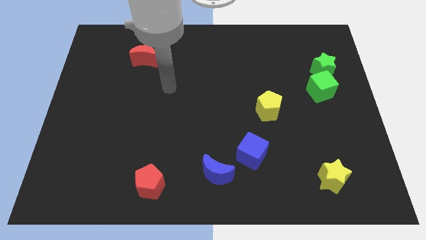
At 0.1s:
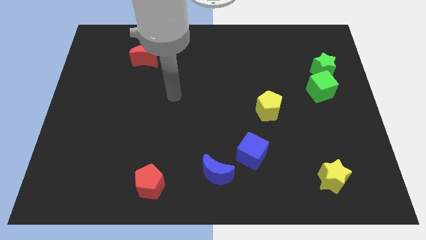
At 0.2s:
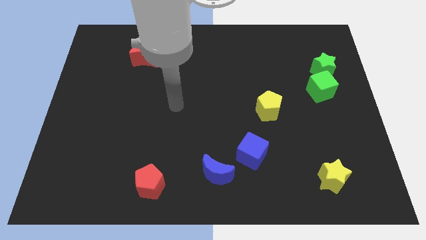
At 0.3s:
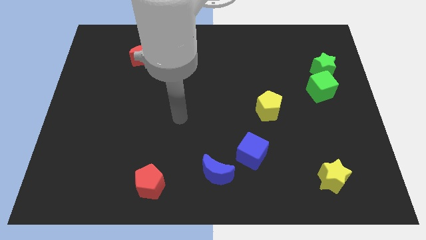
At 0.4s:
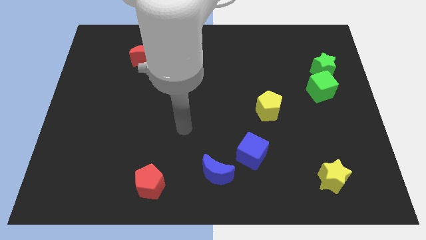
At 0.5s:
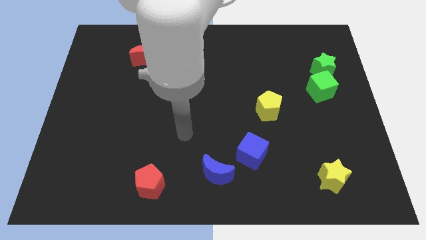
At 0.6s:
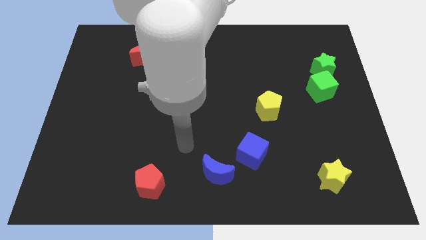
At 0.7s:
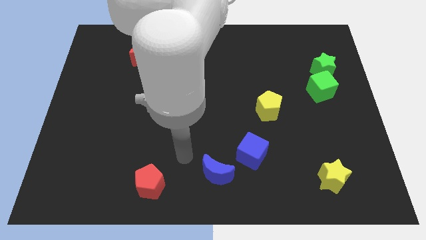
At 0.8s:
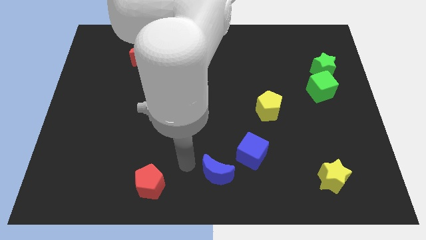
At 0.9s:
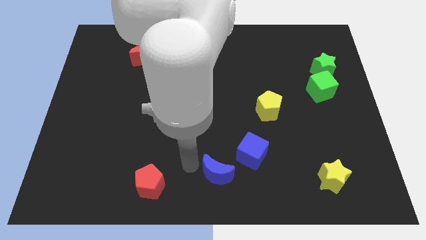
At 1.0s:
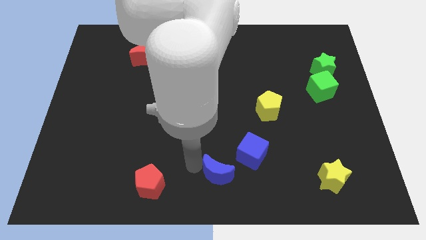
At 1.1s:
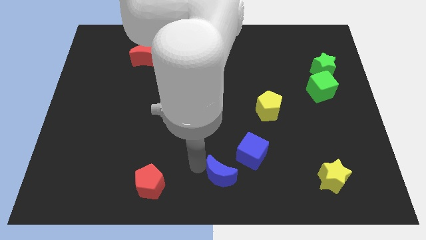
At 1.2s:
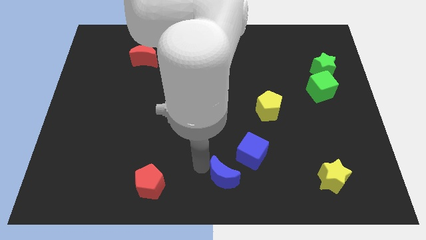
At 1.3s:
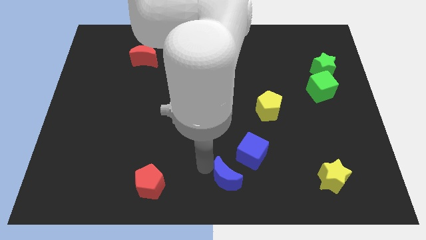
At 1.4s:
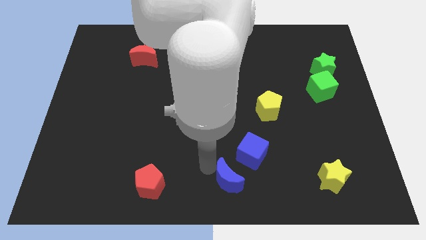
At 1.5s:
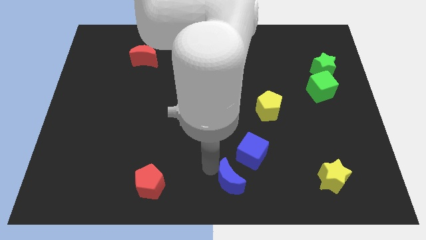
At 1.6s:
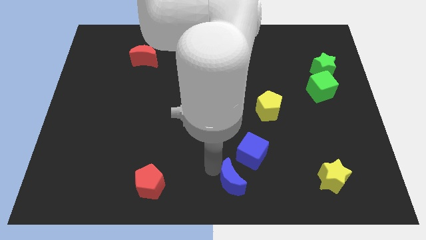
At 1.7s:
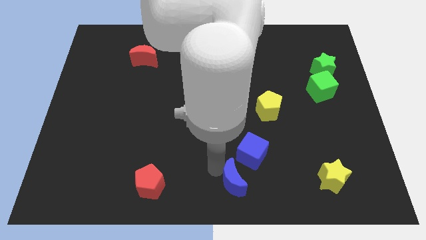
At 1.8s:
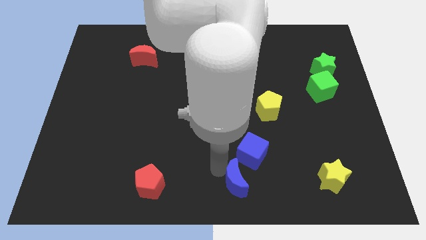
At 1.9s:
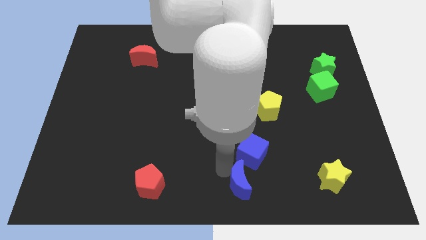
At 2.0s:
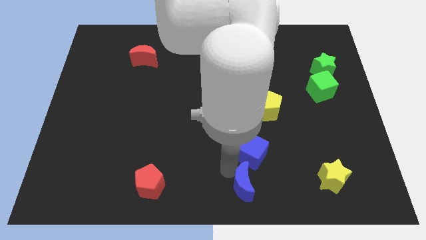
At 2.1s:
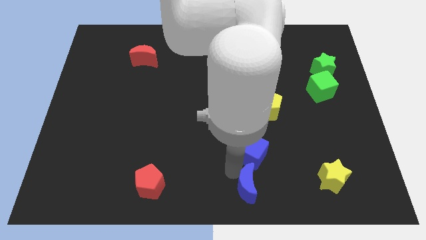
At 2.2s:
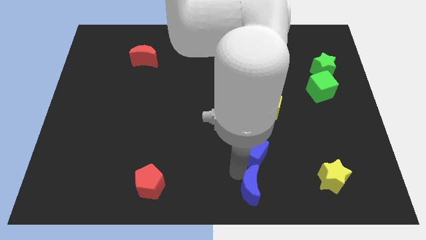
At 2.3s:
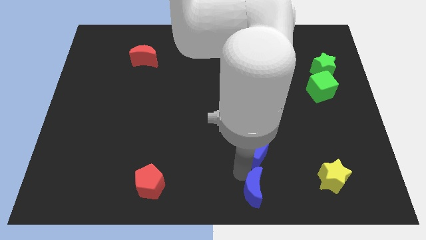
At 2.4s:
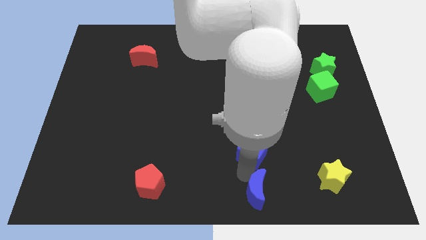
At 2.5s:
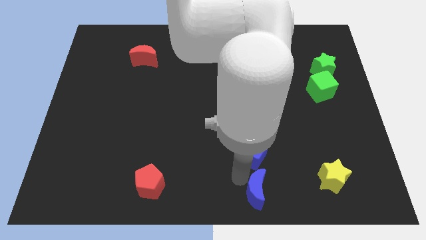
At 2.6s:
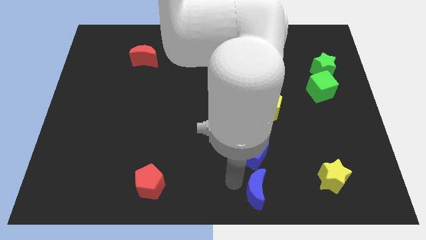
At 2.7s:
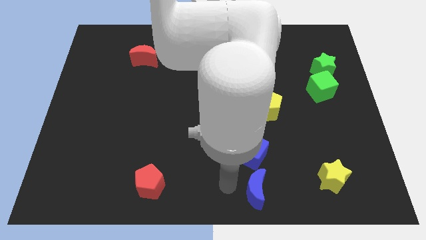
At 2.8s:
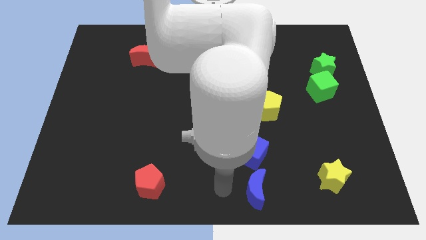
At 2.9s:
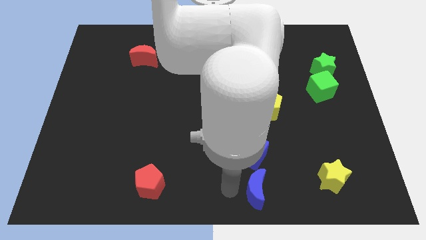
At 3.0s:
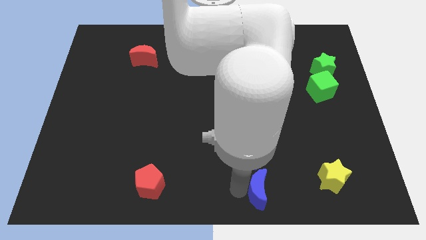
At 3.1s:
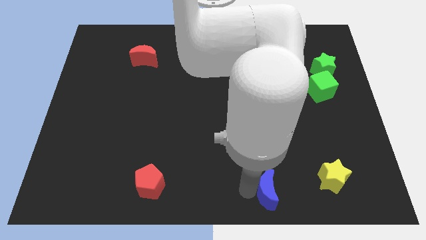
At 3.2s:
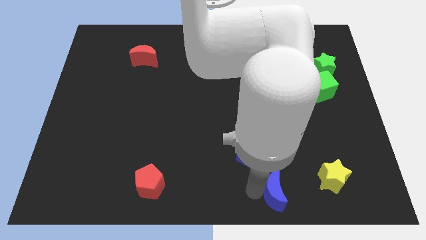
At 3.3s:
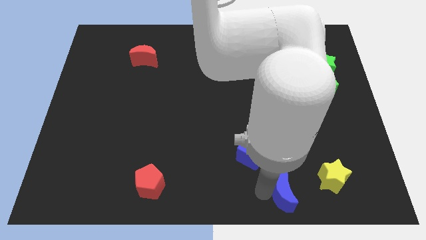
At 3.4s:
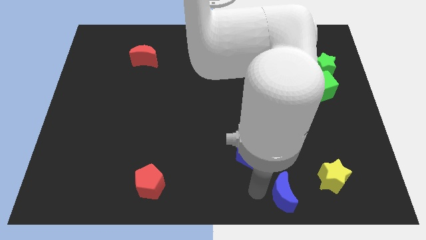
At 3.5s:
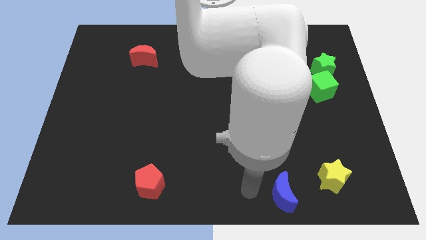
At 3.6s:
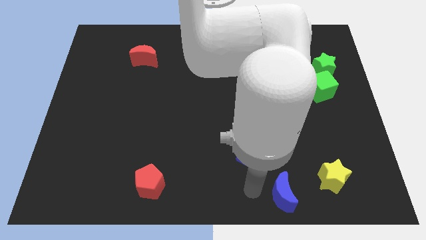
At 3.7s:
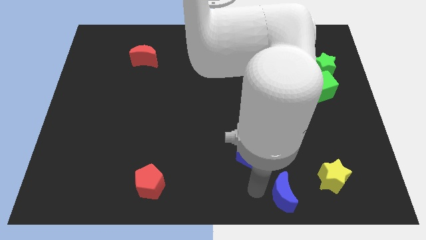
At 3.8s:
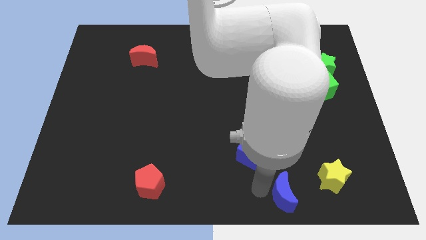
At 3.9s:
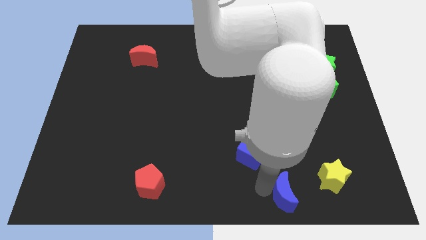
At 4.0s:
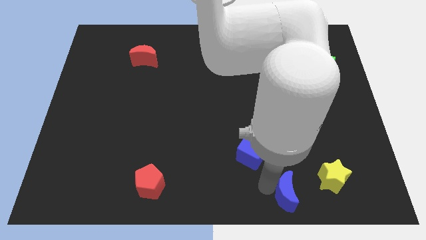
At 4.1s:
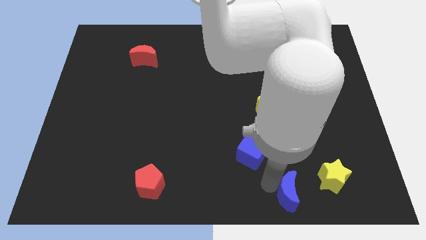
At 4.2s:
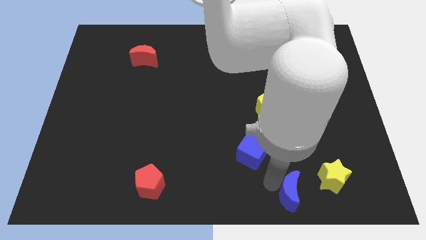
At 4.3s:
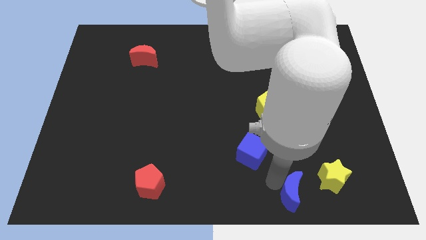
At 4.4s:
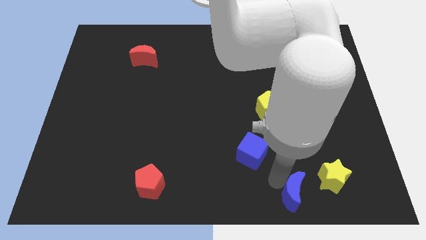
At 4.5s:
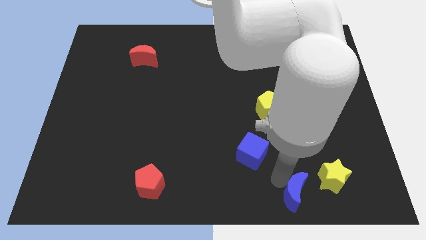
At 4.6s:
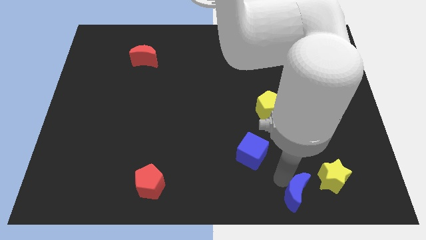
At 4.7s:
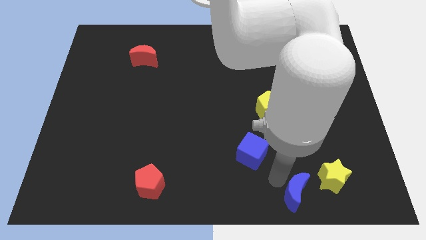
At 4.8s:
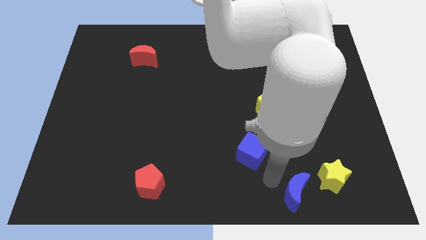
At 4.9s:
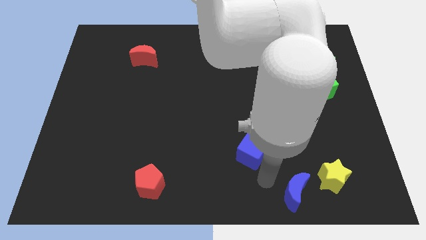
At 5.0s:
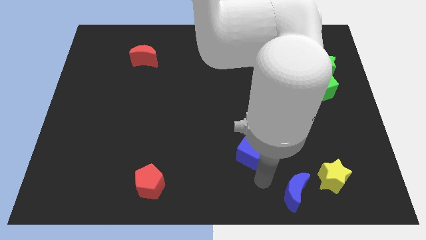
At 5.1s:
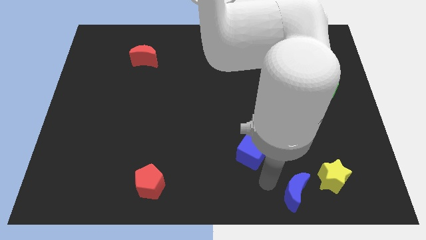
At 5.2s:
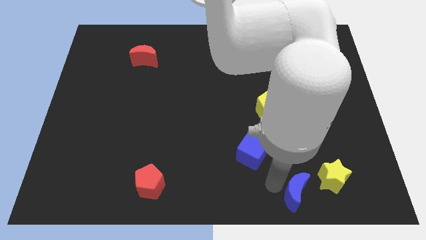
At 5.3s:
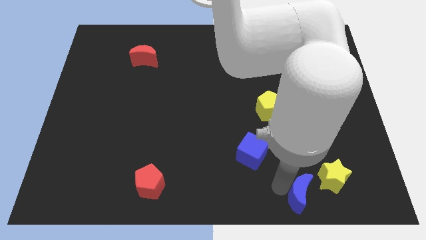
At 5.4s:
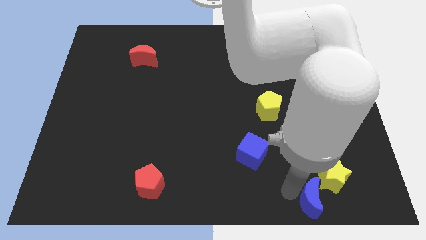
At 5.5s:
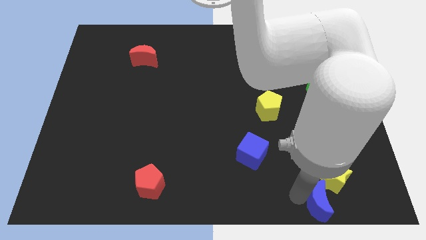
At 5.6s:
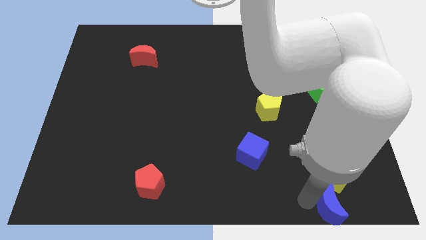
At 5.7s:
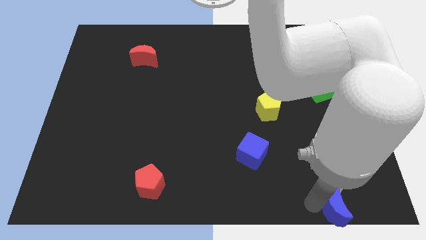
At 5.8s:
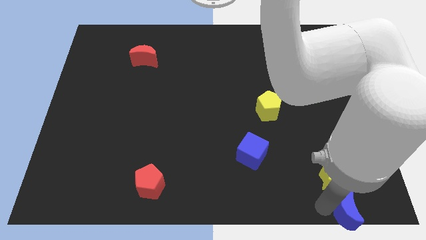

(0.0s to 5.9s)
move the blue moon to the bottom right corner

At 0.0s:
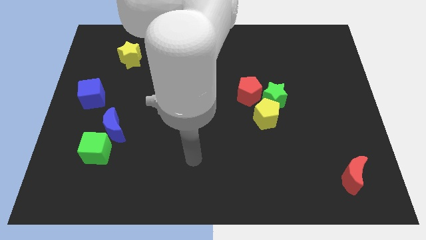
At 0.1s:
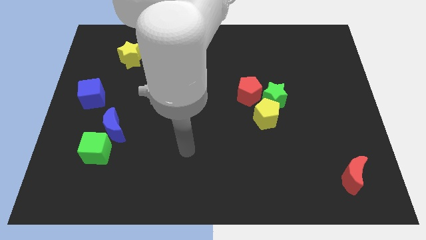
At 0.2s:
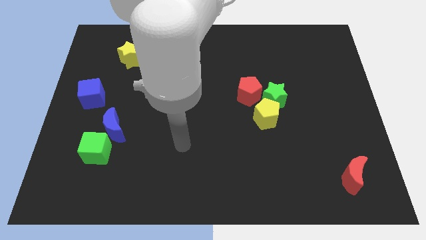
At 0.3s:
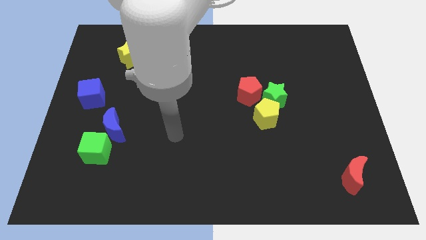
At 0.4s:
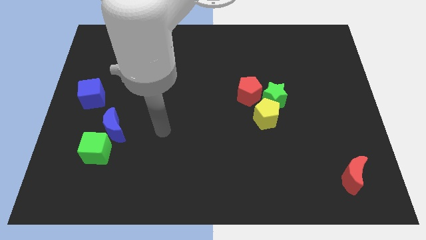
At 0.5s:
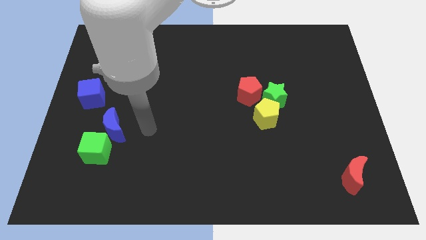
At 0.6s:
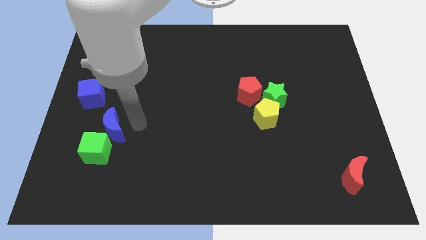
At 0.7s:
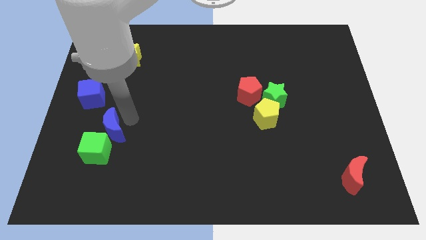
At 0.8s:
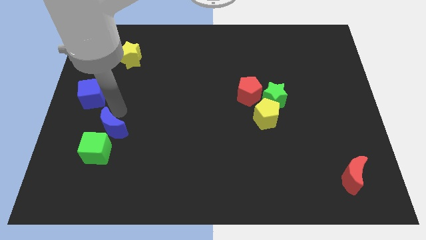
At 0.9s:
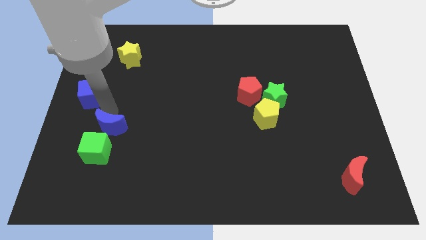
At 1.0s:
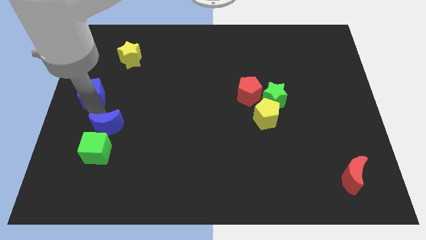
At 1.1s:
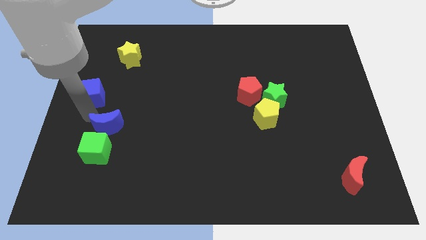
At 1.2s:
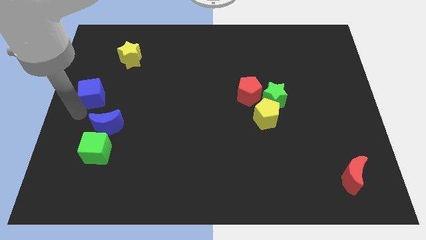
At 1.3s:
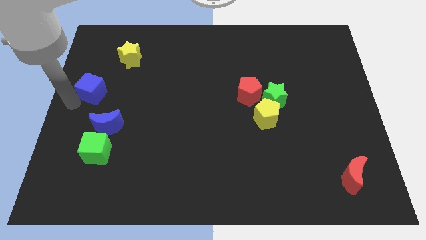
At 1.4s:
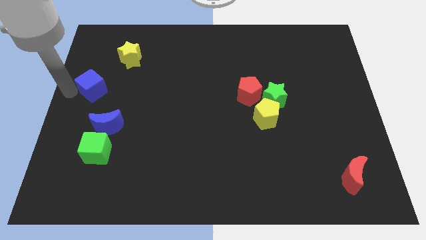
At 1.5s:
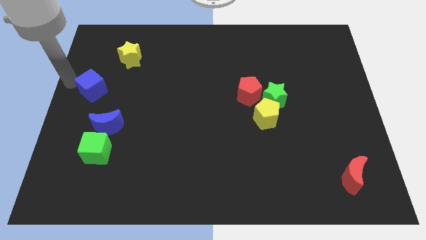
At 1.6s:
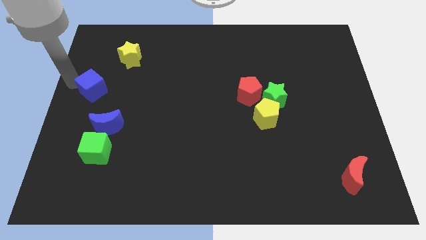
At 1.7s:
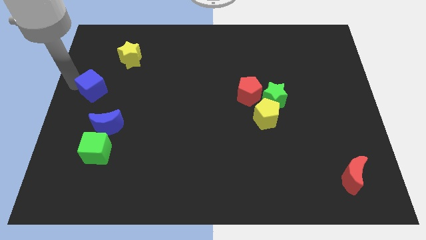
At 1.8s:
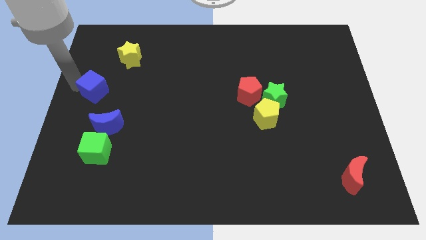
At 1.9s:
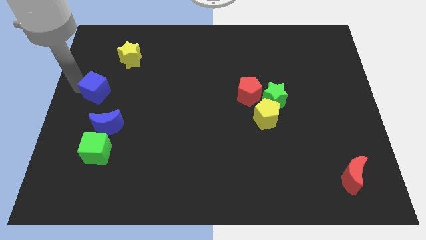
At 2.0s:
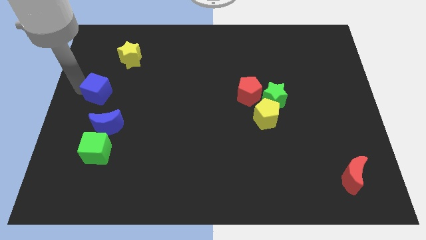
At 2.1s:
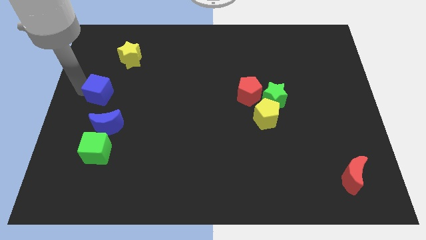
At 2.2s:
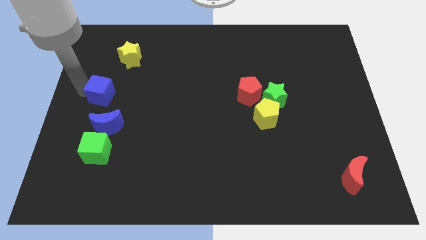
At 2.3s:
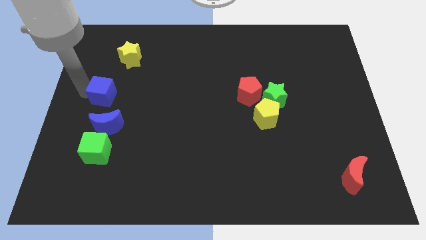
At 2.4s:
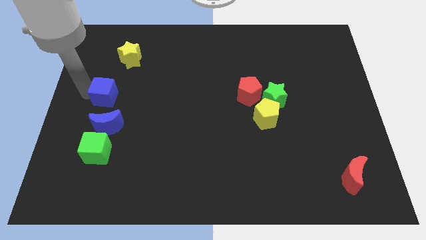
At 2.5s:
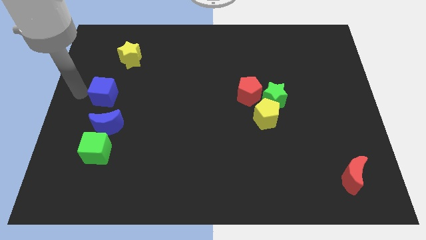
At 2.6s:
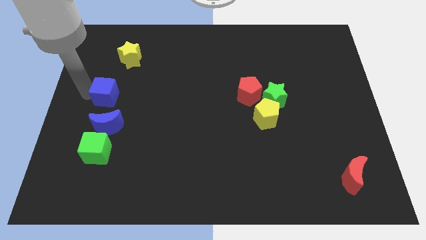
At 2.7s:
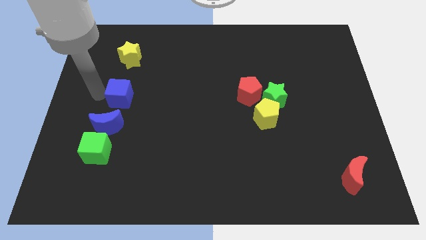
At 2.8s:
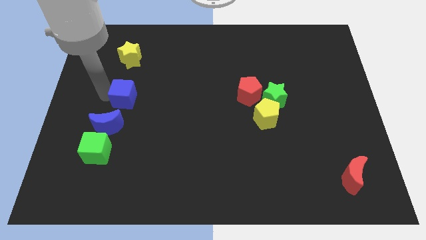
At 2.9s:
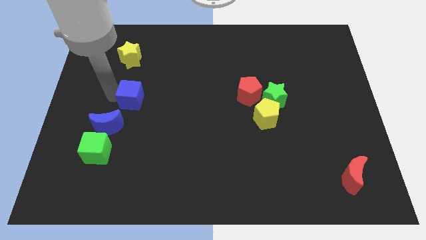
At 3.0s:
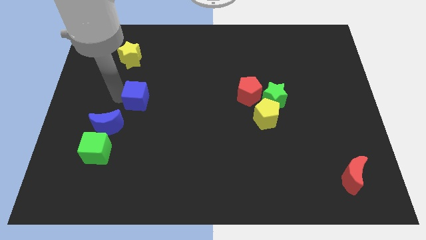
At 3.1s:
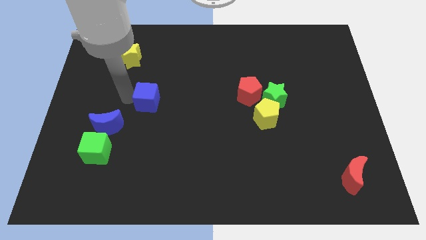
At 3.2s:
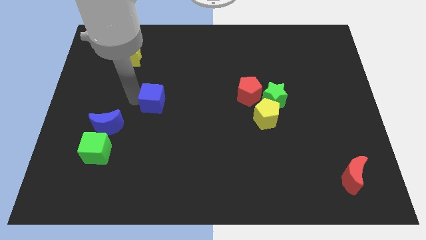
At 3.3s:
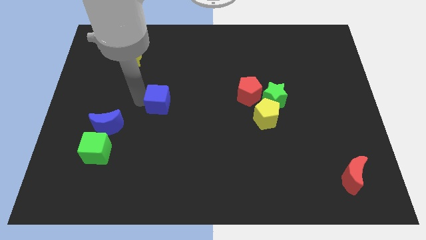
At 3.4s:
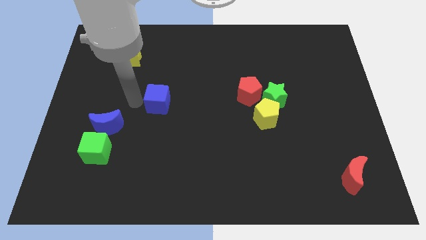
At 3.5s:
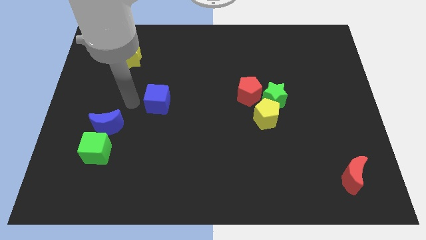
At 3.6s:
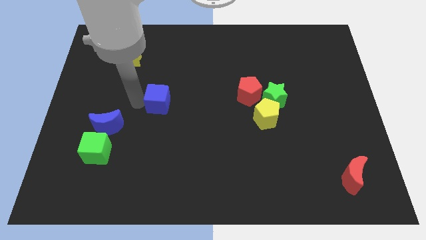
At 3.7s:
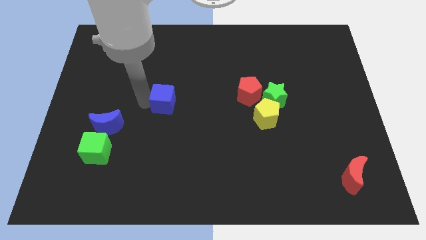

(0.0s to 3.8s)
move the blue cube to the center of the board
